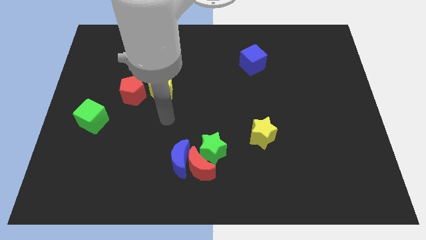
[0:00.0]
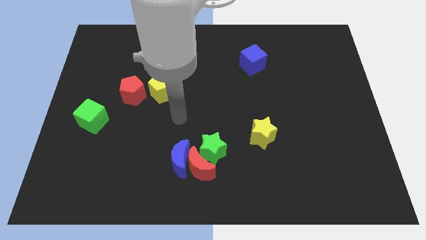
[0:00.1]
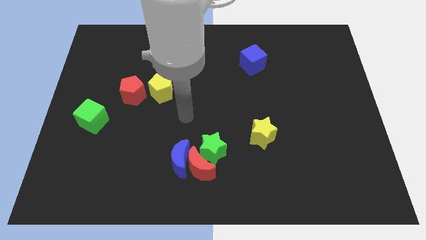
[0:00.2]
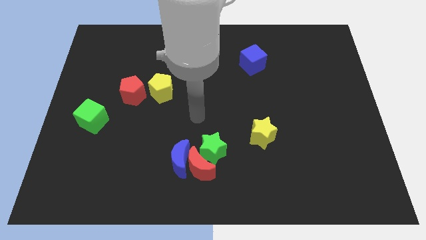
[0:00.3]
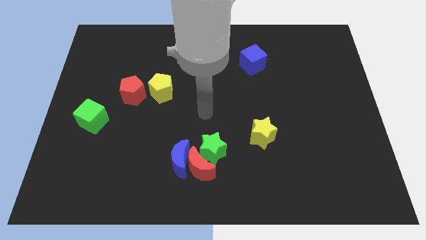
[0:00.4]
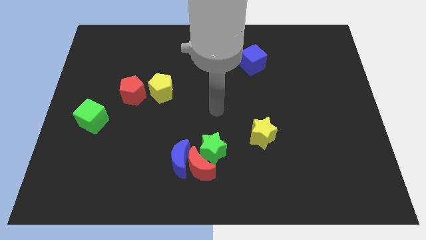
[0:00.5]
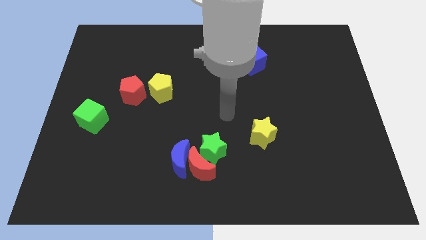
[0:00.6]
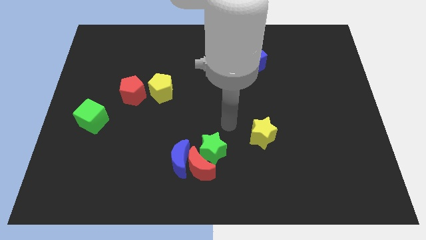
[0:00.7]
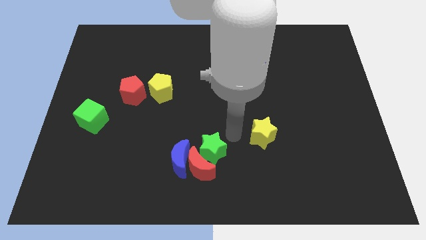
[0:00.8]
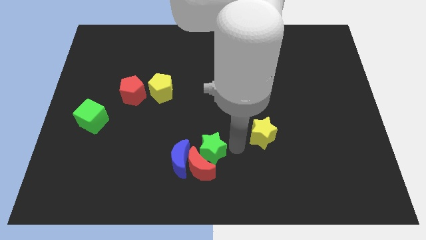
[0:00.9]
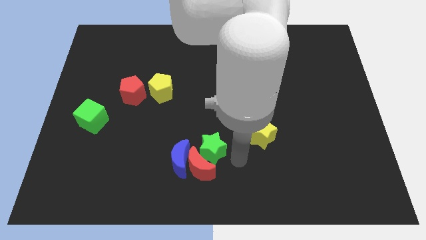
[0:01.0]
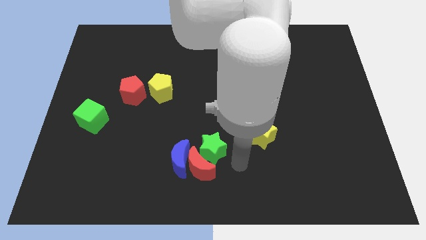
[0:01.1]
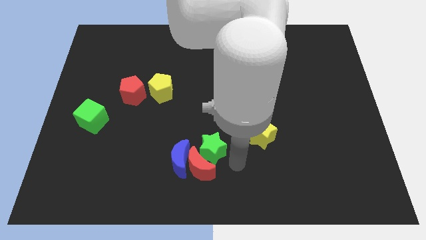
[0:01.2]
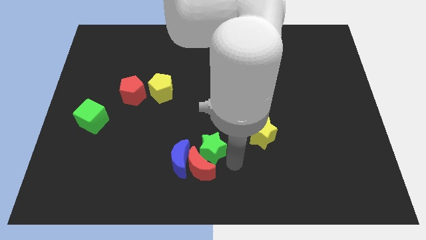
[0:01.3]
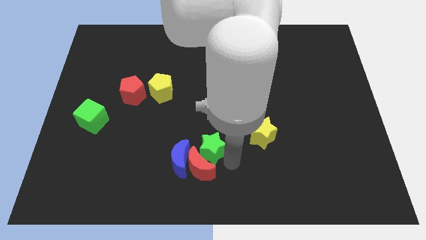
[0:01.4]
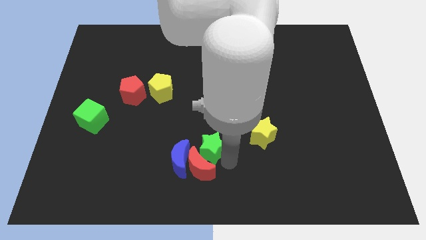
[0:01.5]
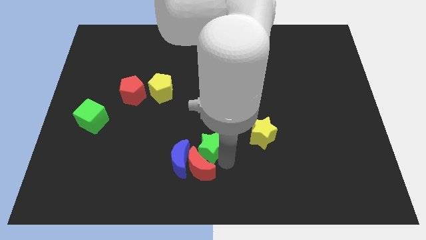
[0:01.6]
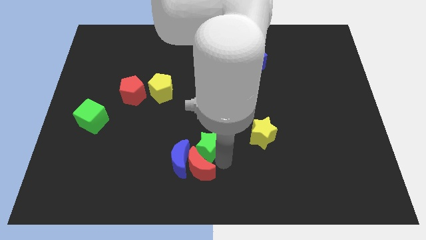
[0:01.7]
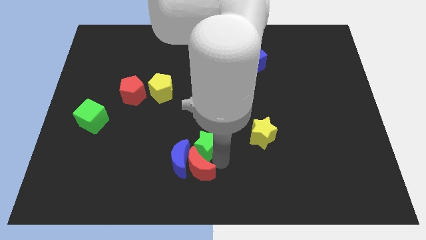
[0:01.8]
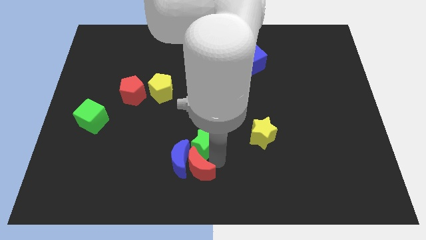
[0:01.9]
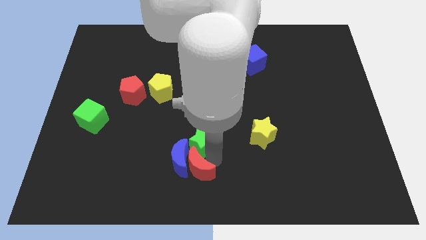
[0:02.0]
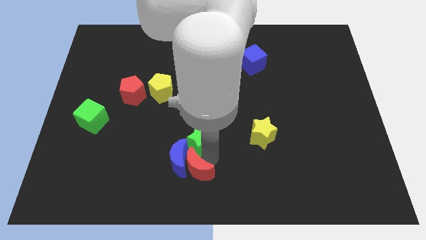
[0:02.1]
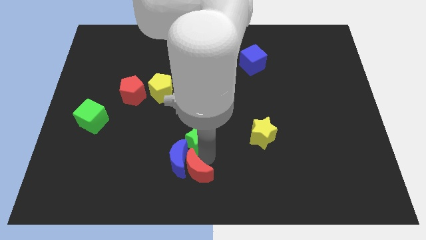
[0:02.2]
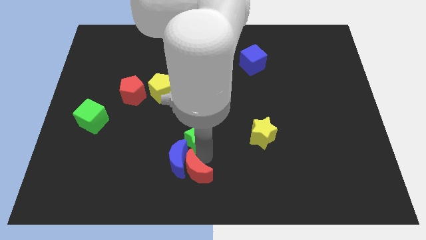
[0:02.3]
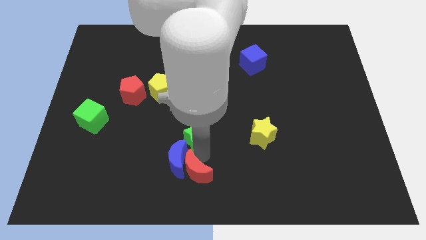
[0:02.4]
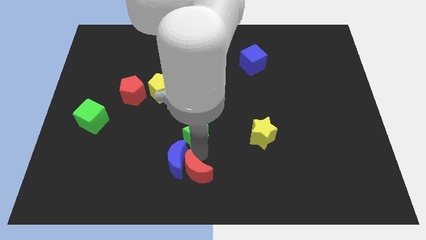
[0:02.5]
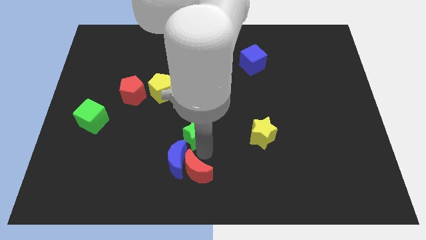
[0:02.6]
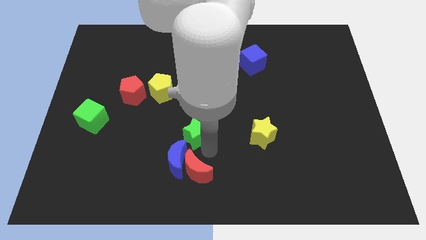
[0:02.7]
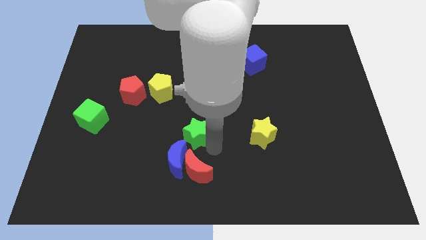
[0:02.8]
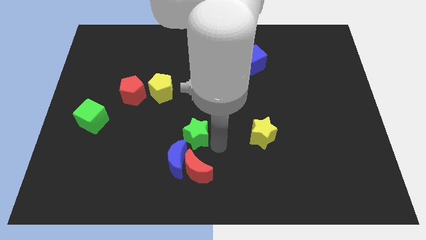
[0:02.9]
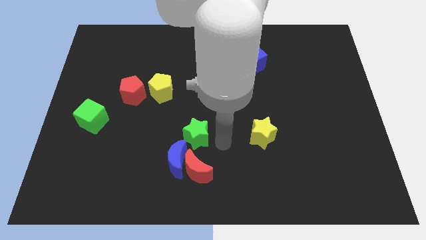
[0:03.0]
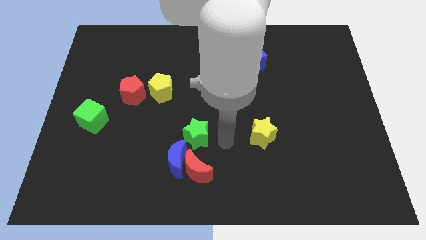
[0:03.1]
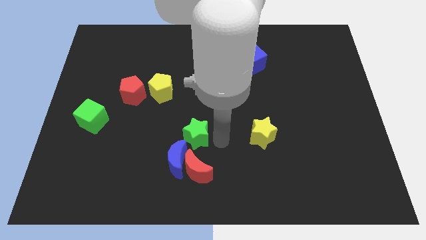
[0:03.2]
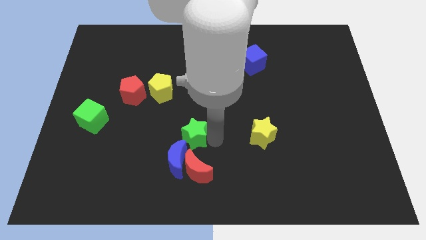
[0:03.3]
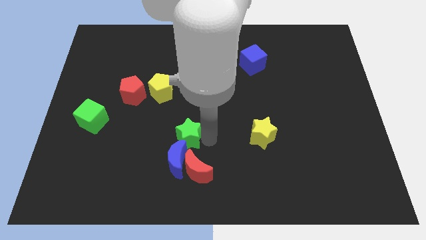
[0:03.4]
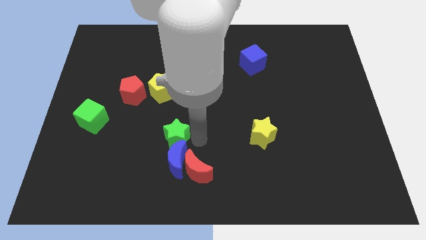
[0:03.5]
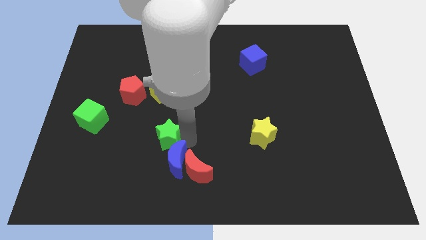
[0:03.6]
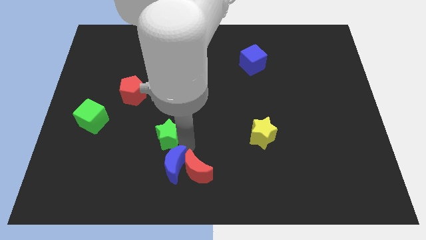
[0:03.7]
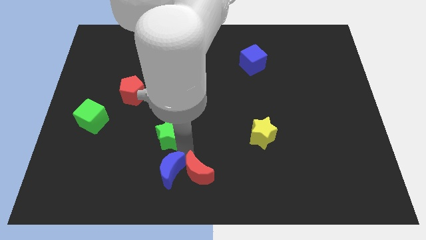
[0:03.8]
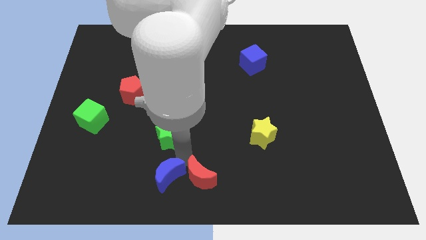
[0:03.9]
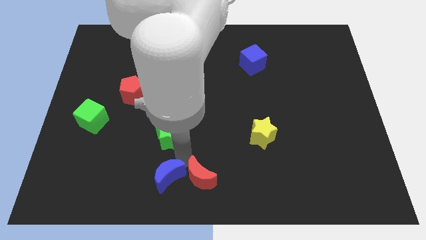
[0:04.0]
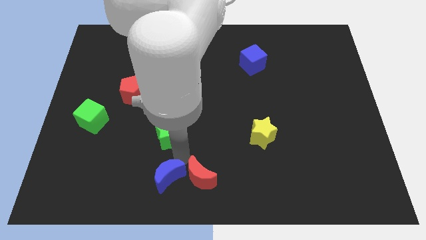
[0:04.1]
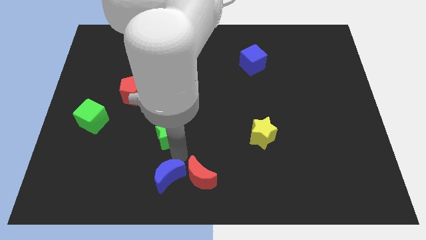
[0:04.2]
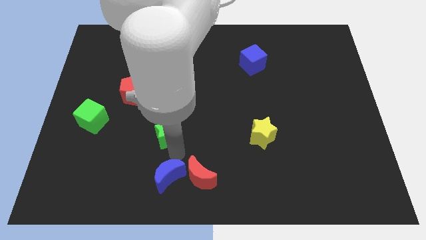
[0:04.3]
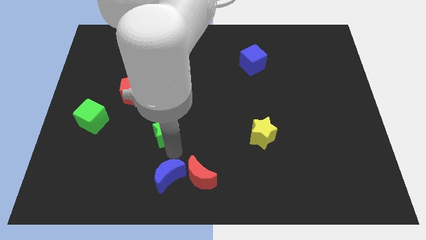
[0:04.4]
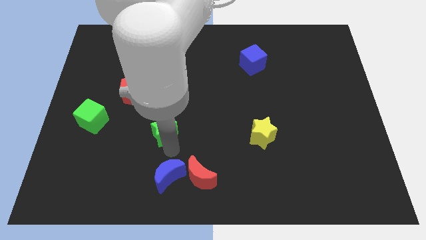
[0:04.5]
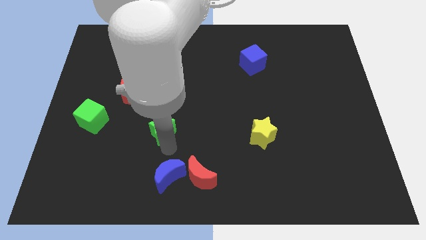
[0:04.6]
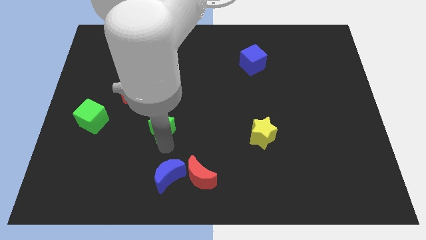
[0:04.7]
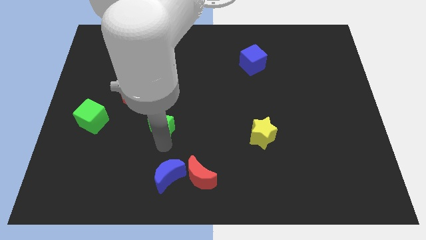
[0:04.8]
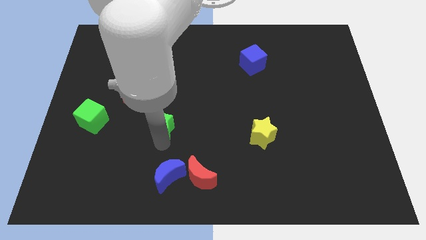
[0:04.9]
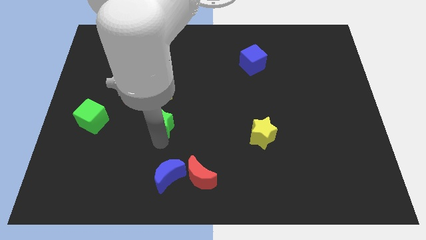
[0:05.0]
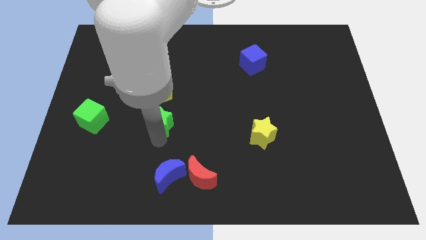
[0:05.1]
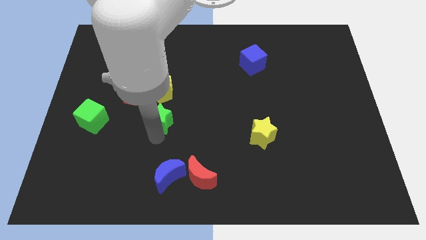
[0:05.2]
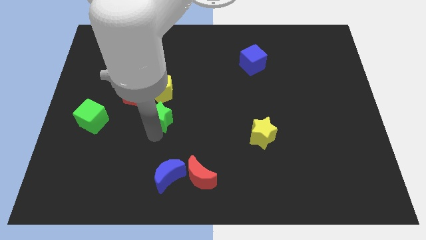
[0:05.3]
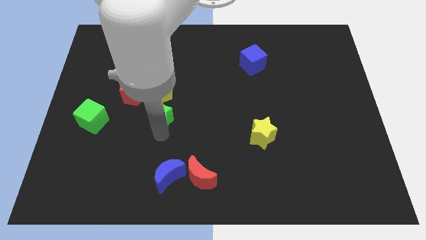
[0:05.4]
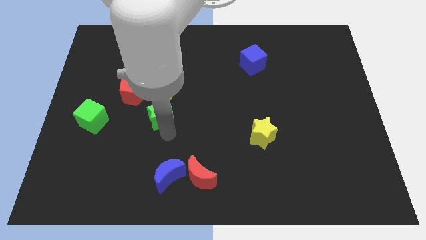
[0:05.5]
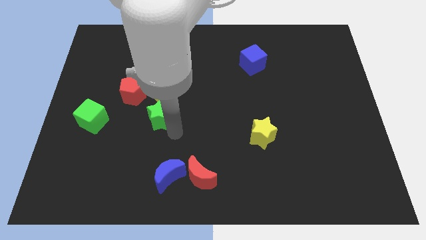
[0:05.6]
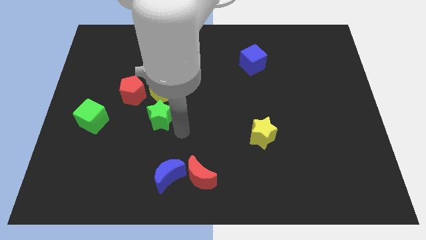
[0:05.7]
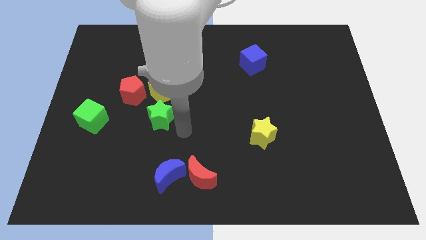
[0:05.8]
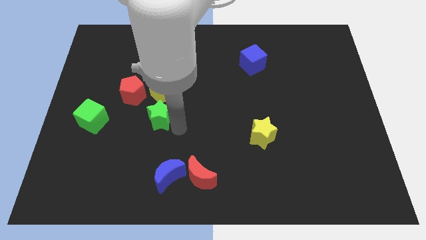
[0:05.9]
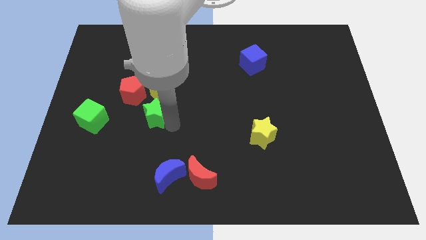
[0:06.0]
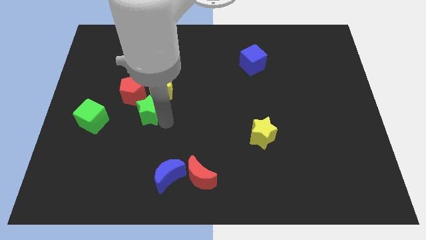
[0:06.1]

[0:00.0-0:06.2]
move the green star to the bottom left of the yellow pentagon

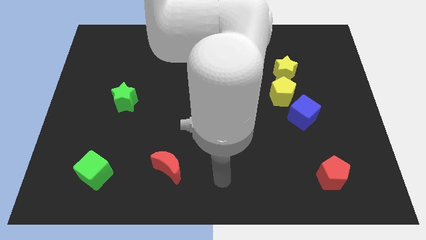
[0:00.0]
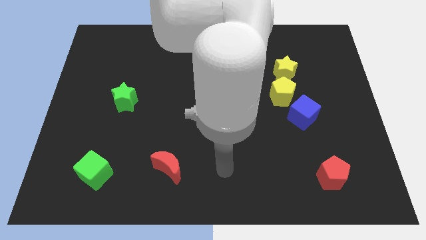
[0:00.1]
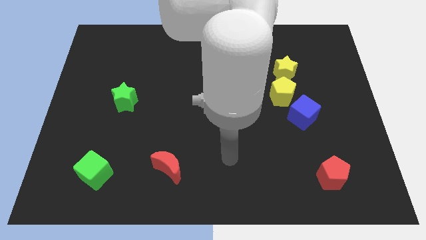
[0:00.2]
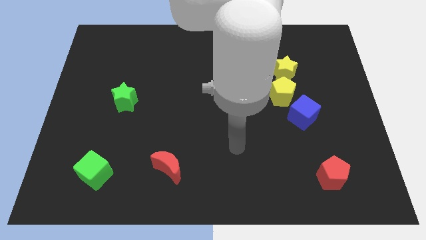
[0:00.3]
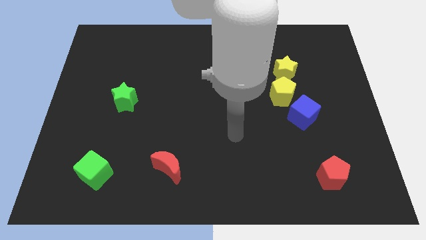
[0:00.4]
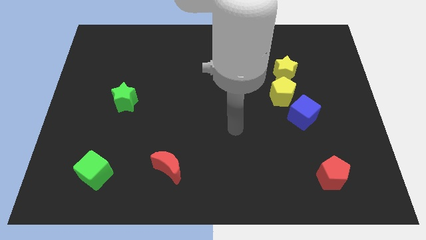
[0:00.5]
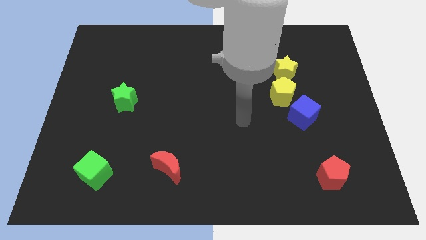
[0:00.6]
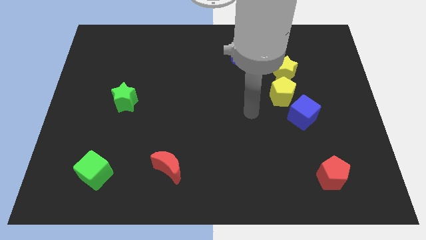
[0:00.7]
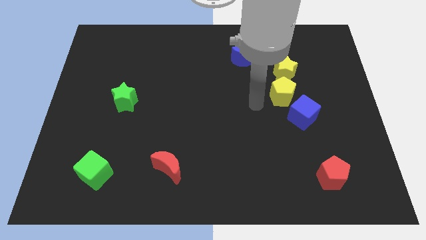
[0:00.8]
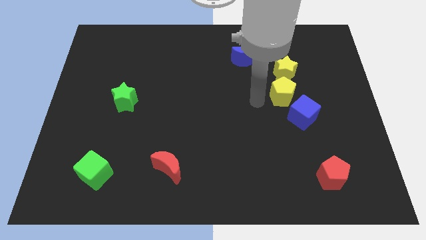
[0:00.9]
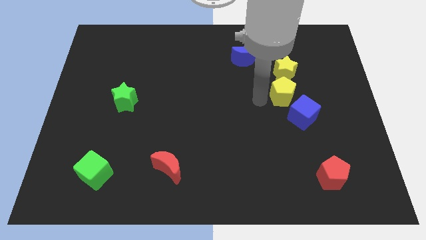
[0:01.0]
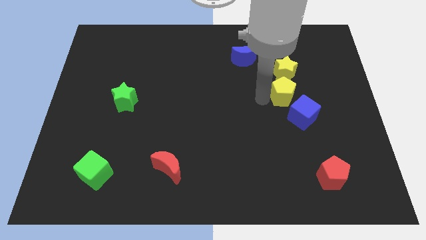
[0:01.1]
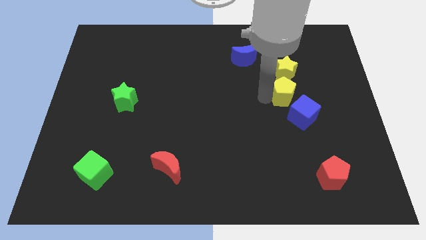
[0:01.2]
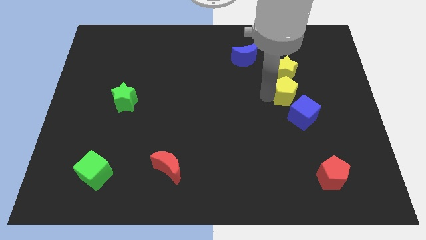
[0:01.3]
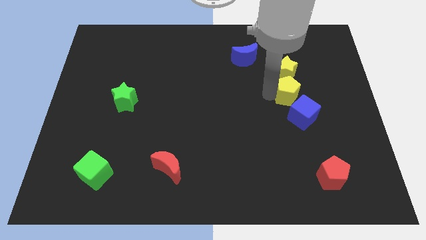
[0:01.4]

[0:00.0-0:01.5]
slide the yellow pentagon to the bottom right of the yellow star
